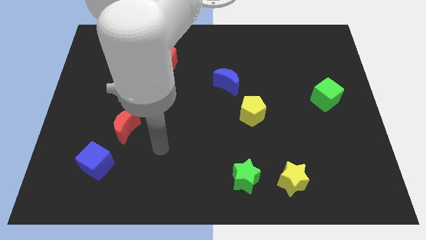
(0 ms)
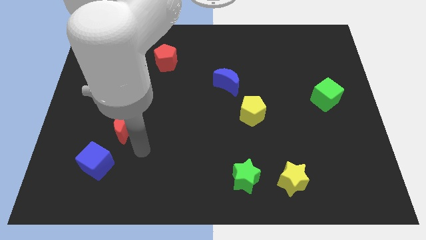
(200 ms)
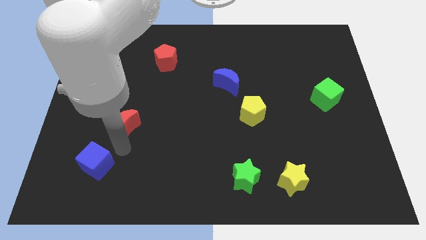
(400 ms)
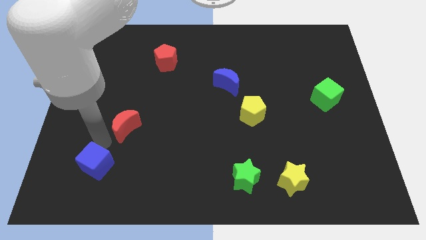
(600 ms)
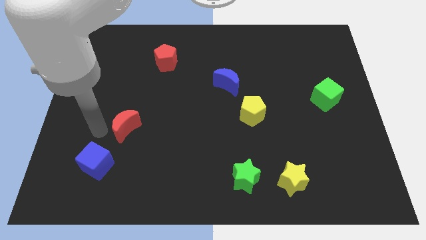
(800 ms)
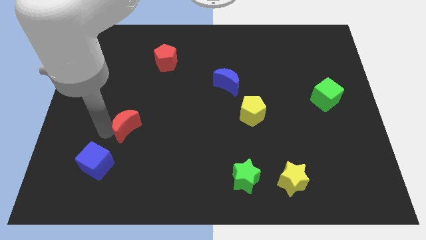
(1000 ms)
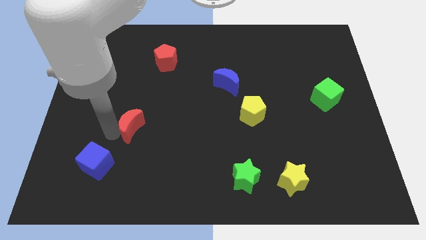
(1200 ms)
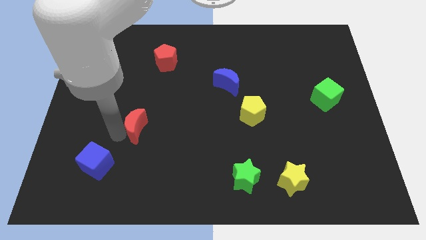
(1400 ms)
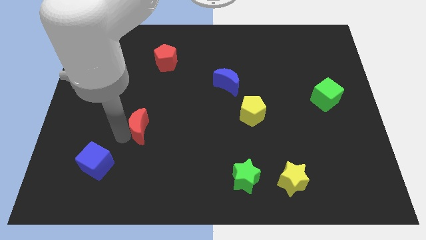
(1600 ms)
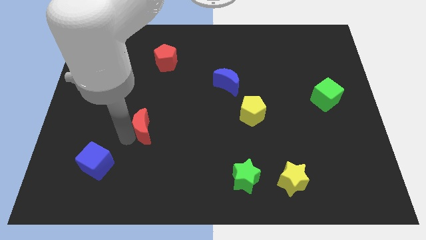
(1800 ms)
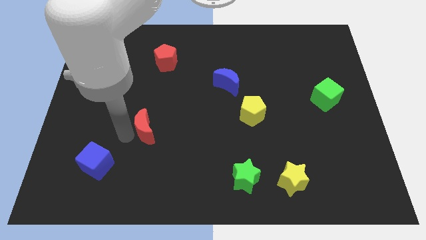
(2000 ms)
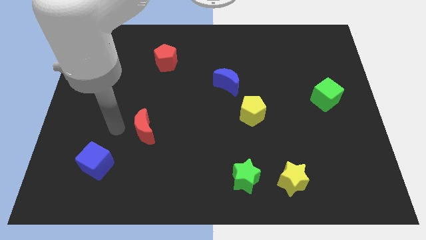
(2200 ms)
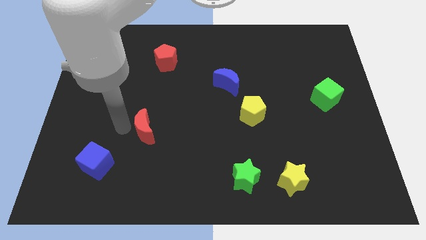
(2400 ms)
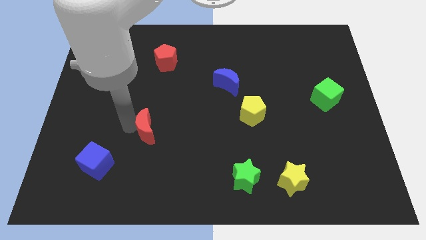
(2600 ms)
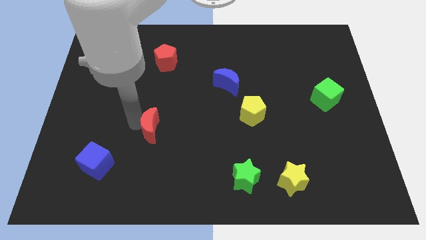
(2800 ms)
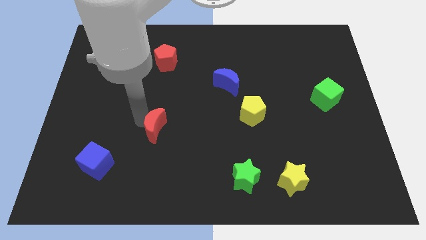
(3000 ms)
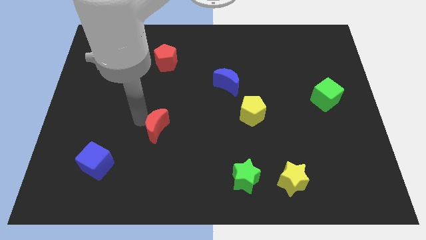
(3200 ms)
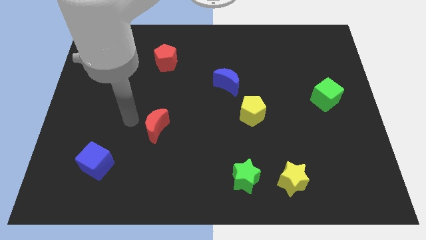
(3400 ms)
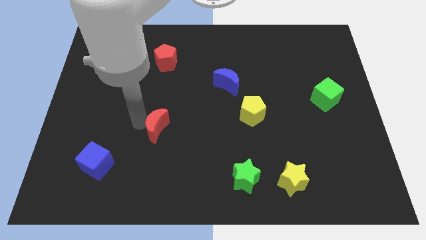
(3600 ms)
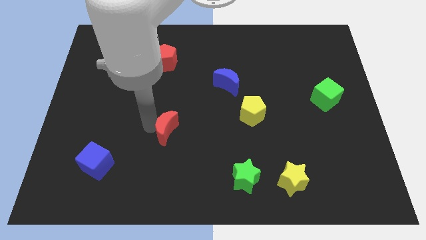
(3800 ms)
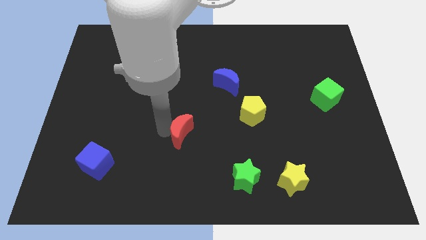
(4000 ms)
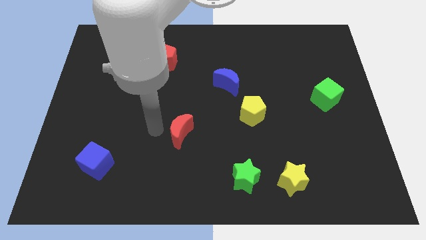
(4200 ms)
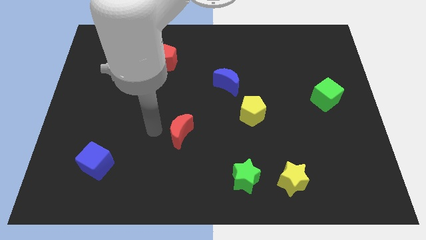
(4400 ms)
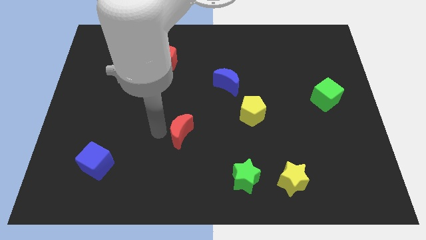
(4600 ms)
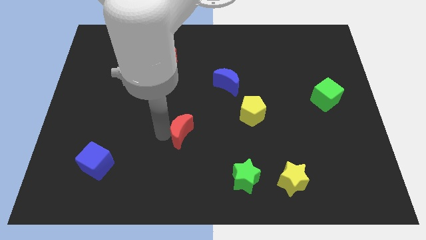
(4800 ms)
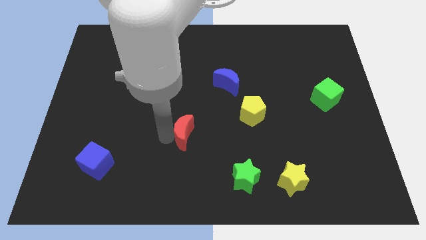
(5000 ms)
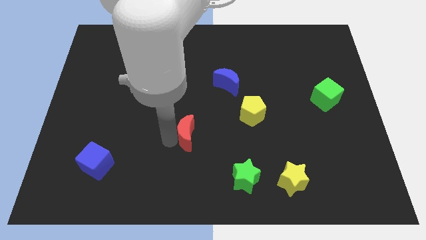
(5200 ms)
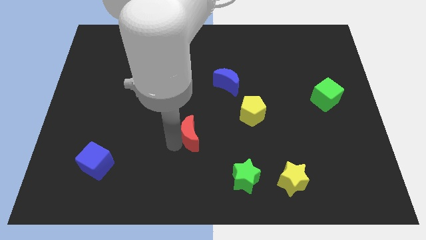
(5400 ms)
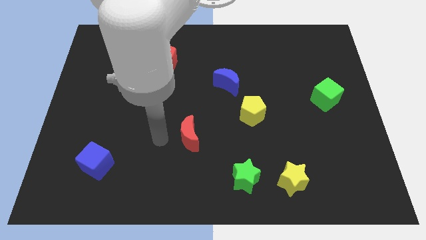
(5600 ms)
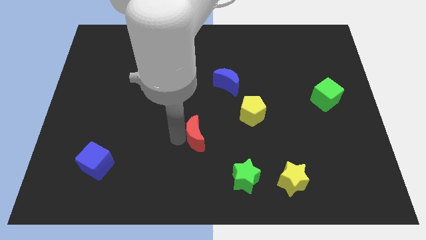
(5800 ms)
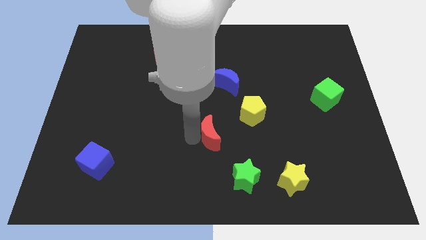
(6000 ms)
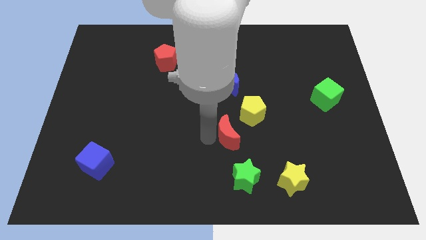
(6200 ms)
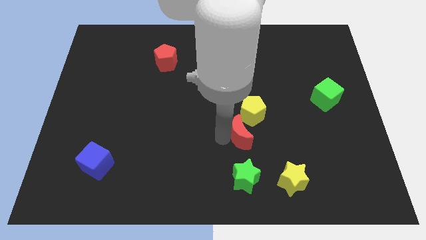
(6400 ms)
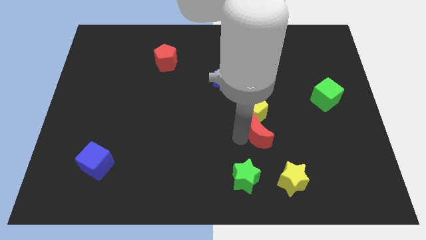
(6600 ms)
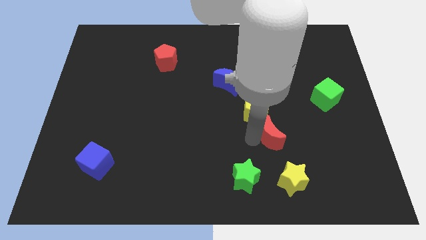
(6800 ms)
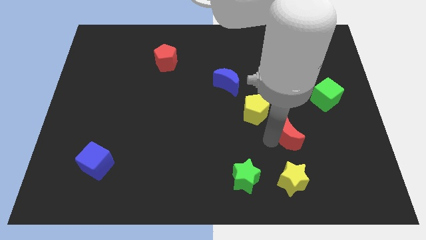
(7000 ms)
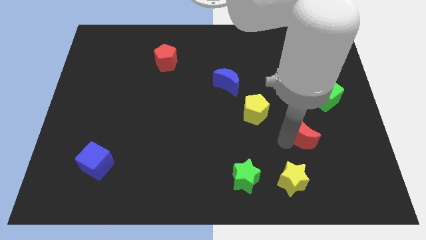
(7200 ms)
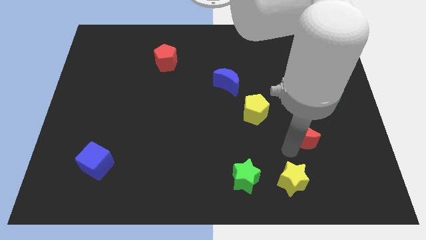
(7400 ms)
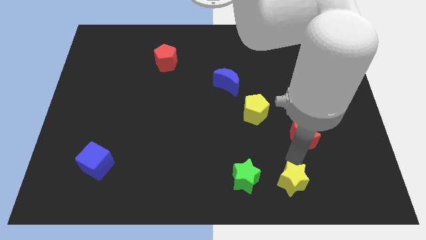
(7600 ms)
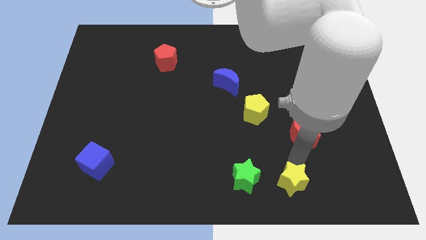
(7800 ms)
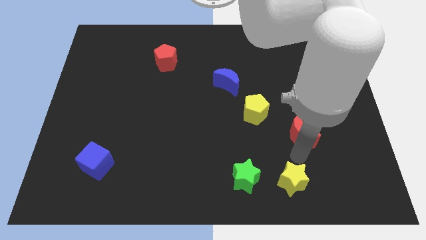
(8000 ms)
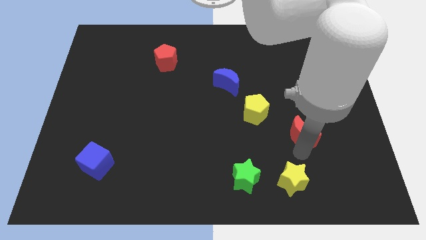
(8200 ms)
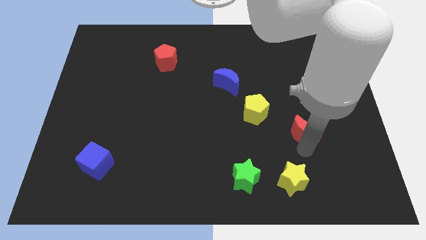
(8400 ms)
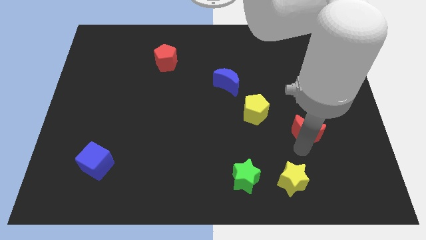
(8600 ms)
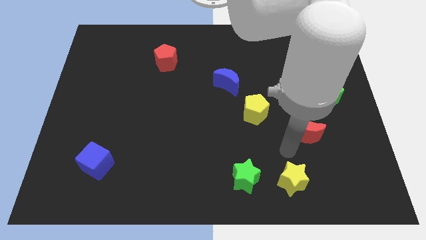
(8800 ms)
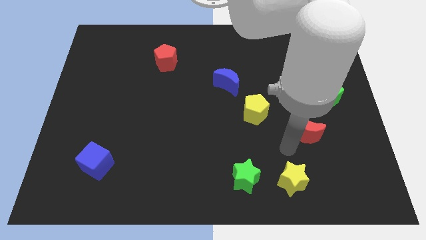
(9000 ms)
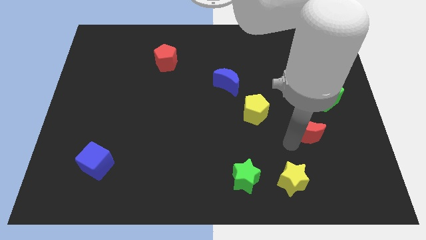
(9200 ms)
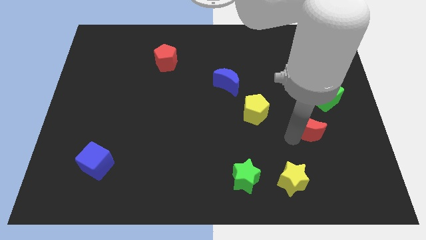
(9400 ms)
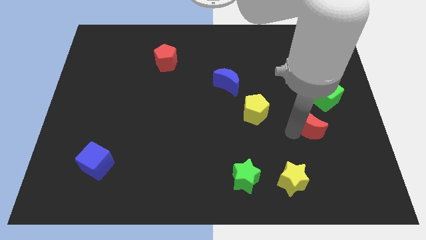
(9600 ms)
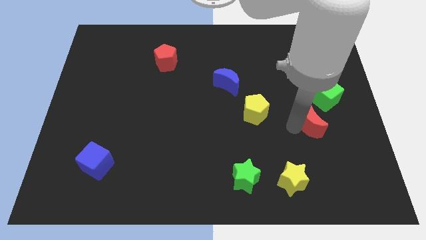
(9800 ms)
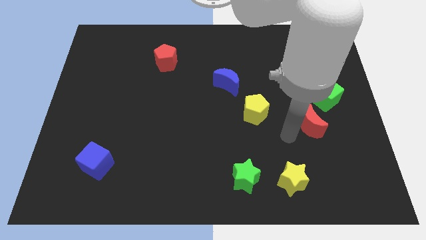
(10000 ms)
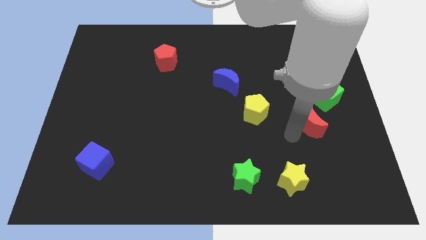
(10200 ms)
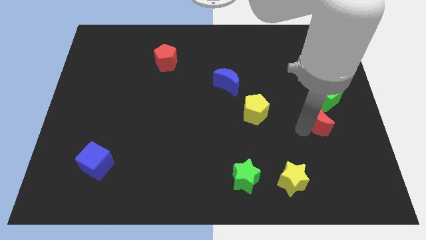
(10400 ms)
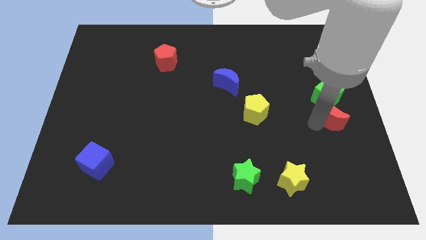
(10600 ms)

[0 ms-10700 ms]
slide the red moon to the center right

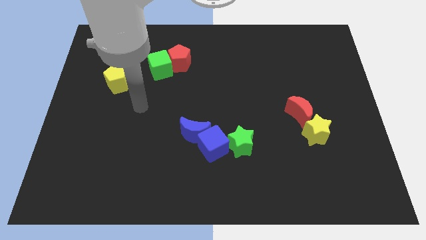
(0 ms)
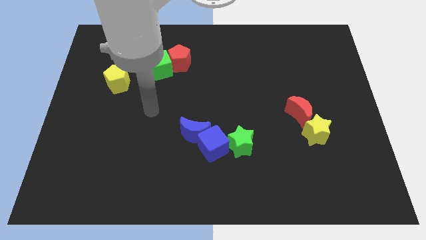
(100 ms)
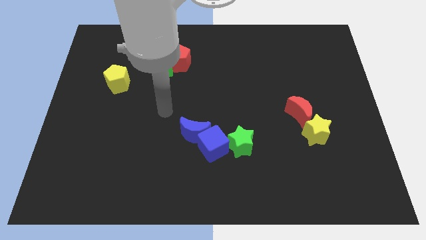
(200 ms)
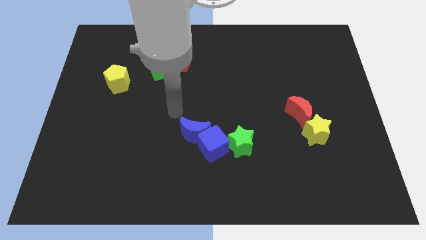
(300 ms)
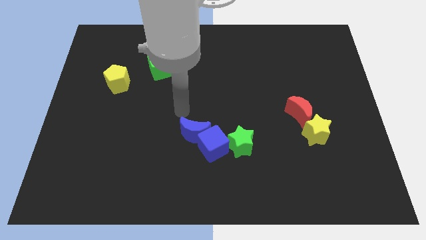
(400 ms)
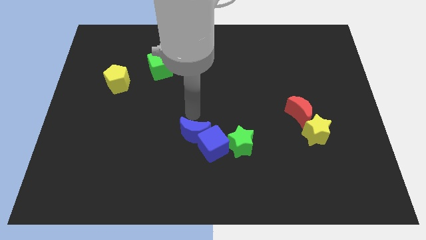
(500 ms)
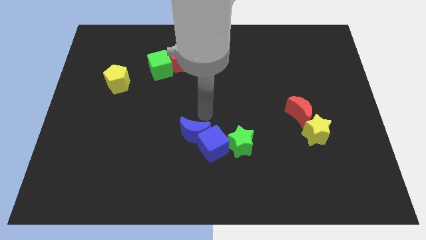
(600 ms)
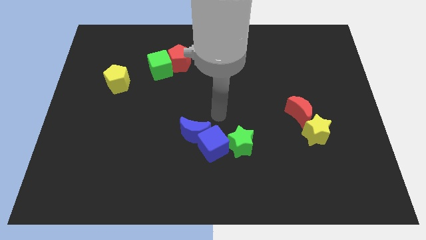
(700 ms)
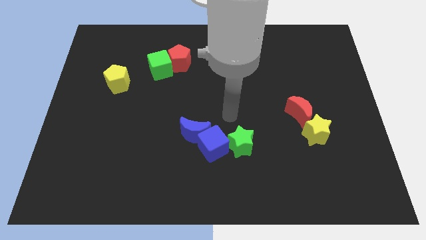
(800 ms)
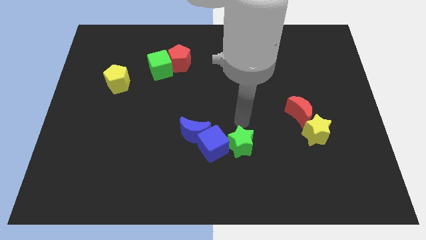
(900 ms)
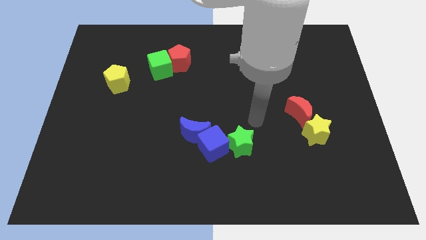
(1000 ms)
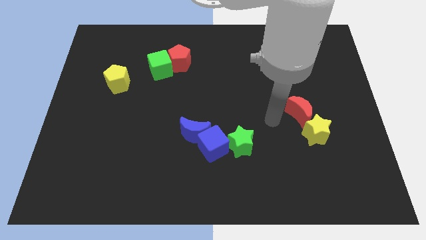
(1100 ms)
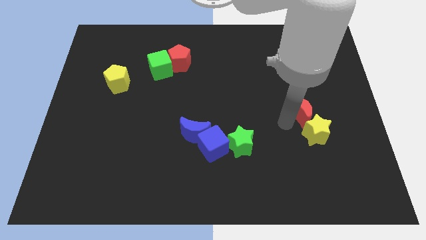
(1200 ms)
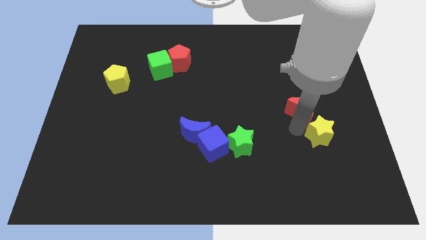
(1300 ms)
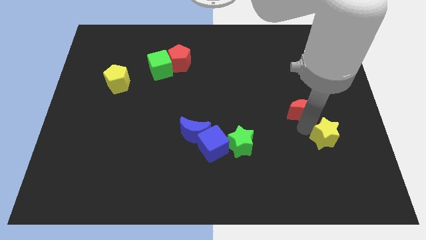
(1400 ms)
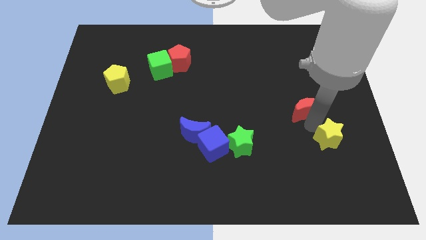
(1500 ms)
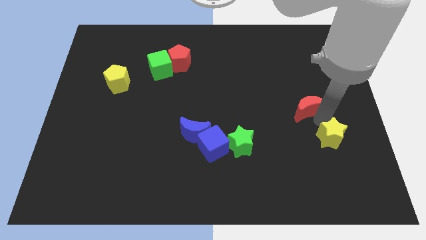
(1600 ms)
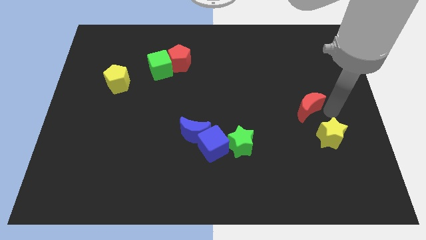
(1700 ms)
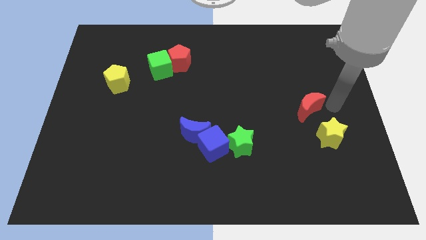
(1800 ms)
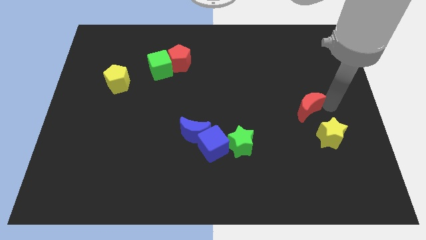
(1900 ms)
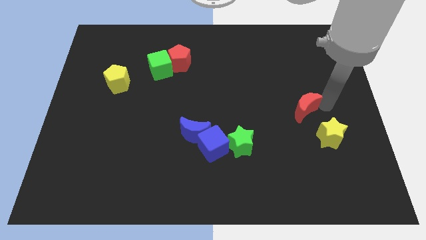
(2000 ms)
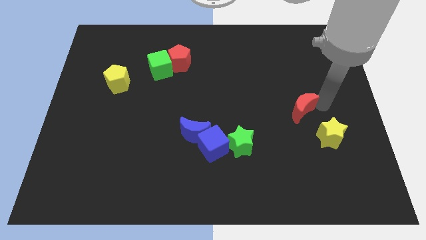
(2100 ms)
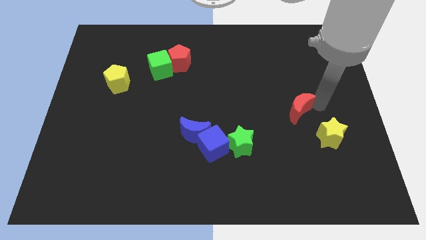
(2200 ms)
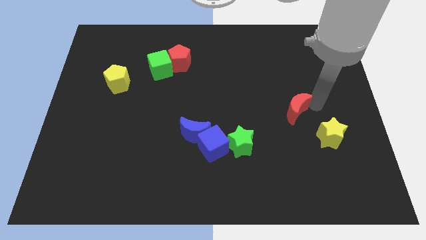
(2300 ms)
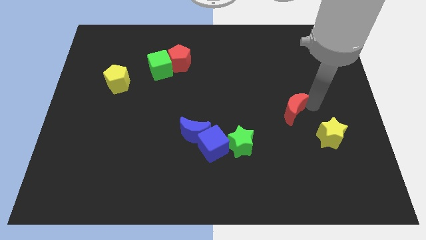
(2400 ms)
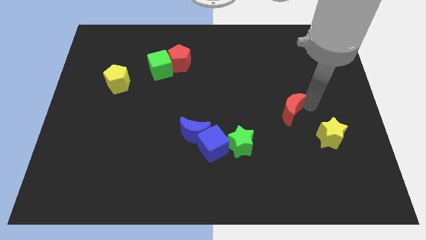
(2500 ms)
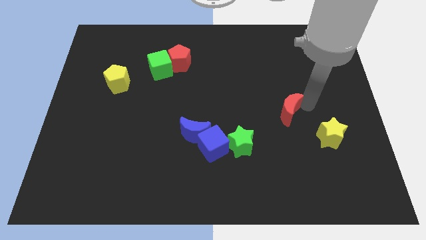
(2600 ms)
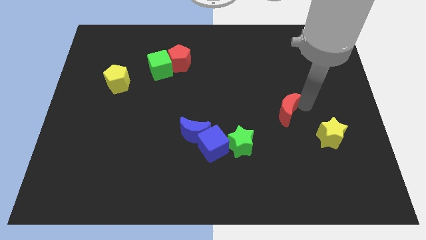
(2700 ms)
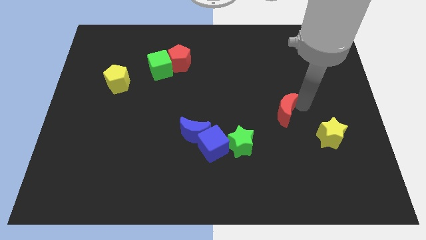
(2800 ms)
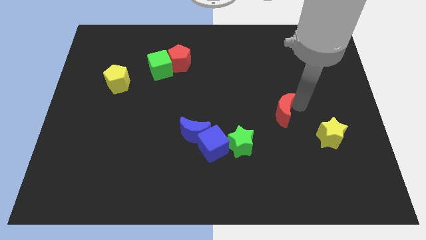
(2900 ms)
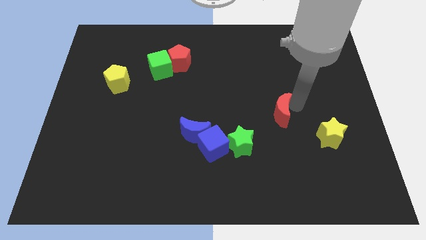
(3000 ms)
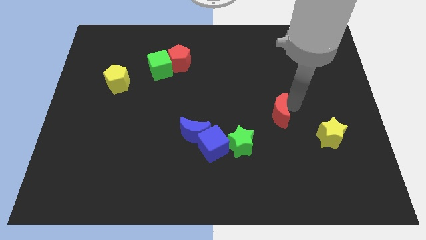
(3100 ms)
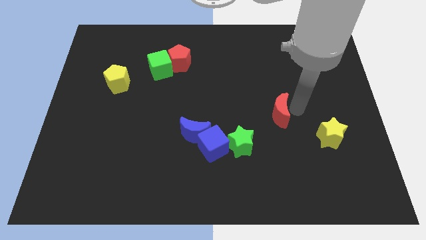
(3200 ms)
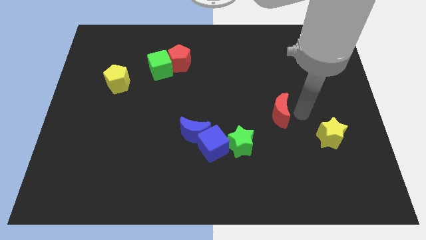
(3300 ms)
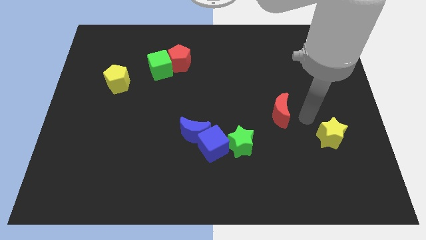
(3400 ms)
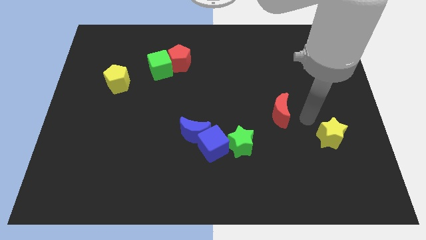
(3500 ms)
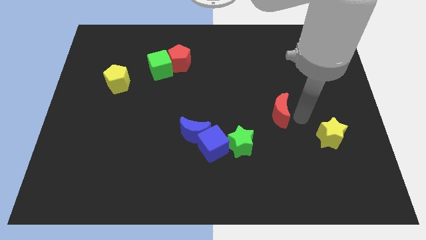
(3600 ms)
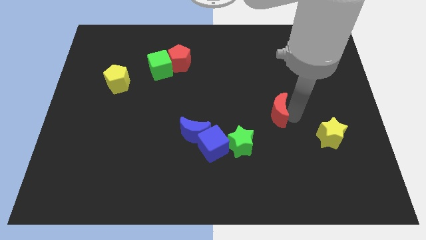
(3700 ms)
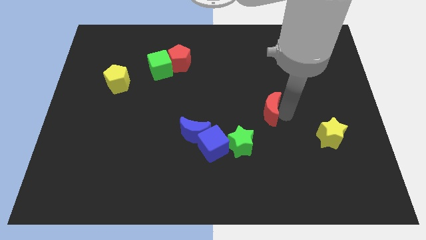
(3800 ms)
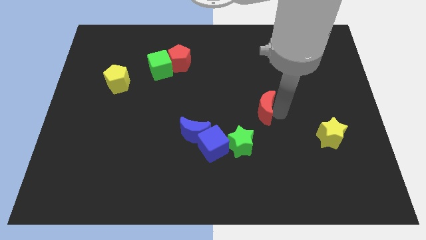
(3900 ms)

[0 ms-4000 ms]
move the red moon to the center of the board
